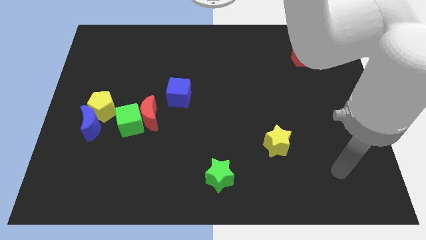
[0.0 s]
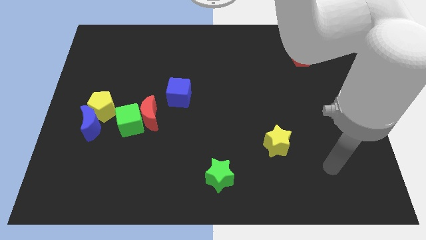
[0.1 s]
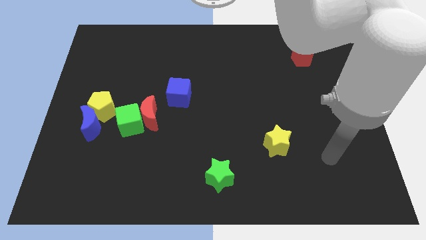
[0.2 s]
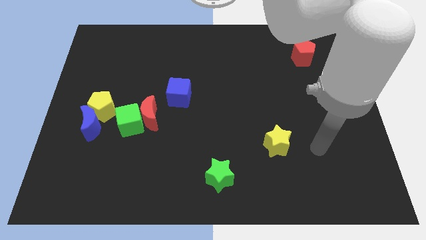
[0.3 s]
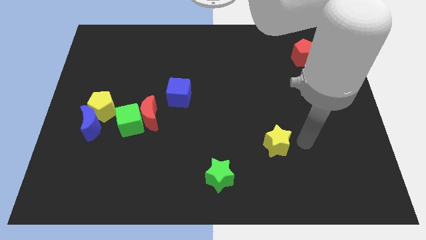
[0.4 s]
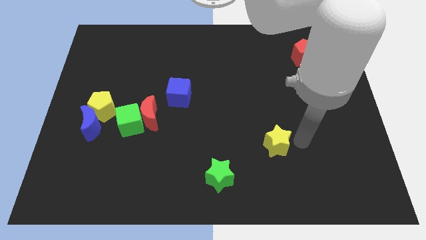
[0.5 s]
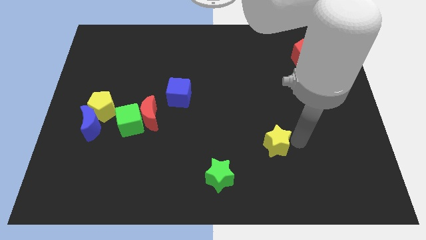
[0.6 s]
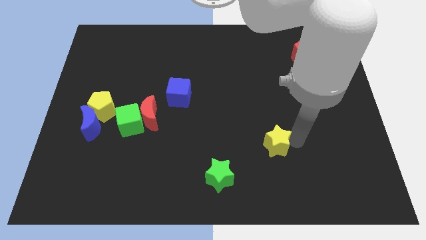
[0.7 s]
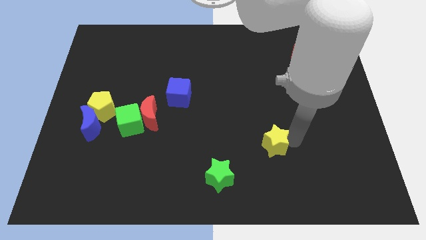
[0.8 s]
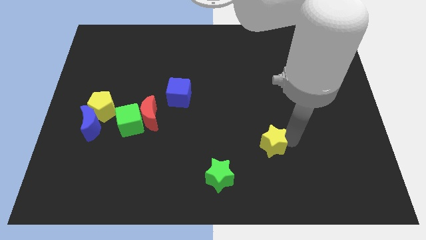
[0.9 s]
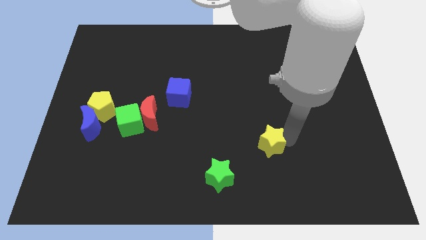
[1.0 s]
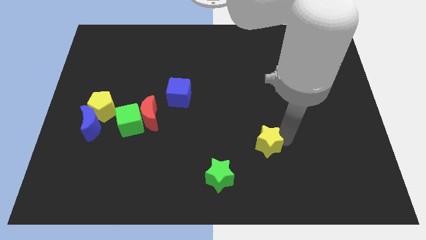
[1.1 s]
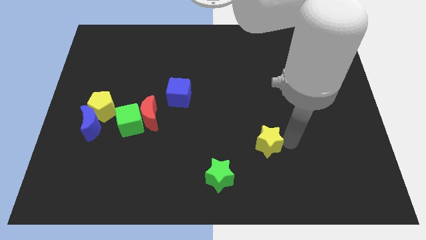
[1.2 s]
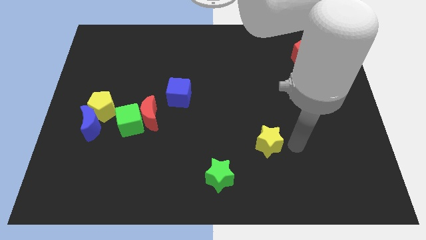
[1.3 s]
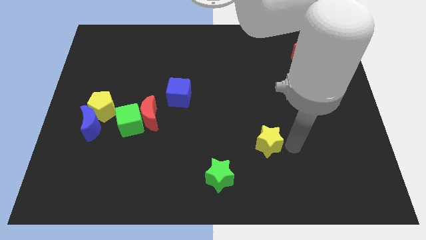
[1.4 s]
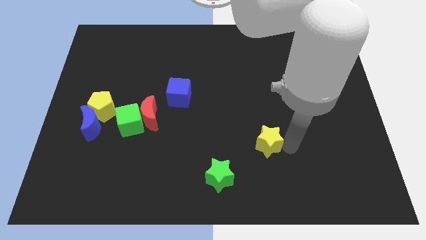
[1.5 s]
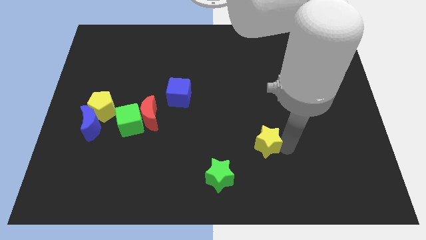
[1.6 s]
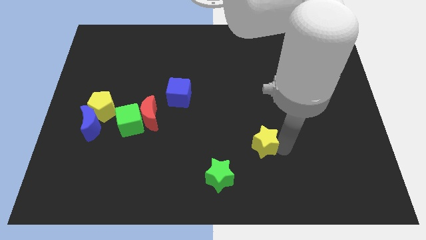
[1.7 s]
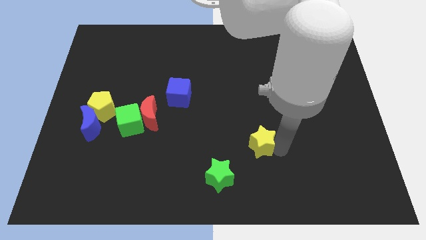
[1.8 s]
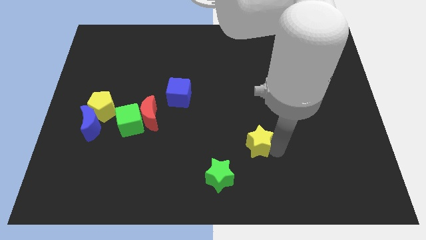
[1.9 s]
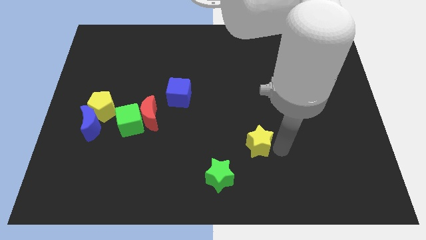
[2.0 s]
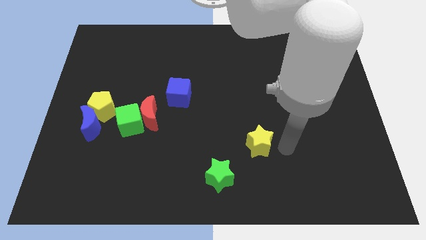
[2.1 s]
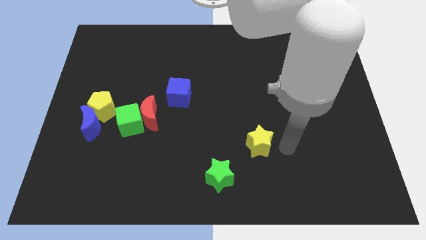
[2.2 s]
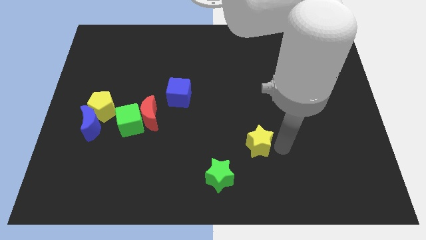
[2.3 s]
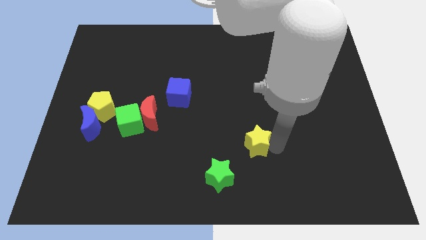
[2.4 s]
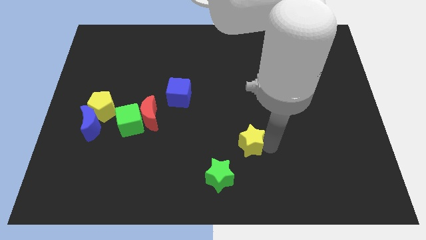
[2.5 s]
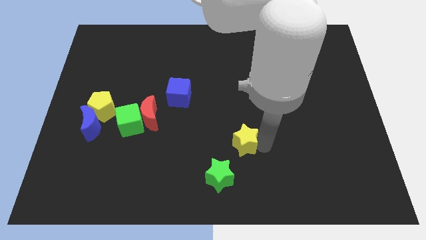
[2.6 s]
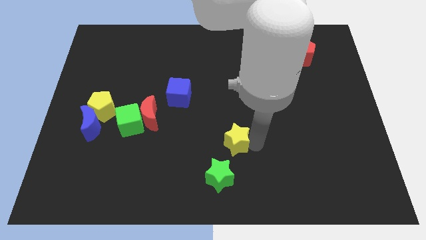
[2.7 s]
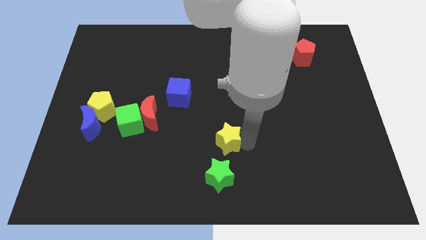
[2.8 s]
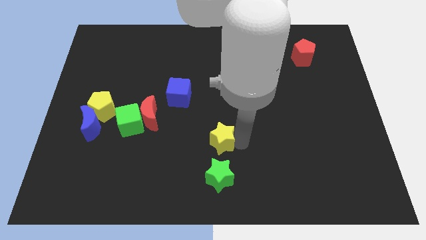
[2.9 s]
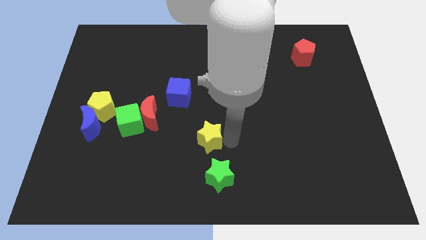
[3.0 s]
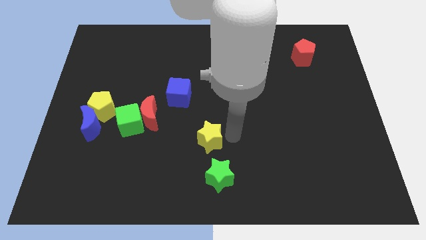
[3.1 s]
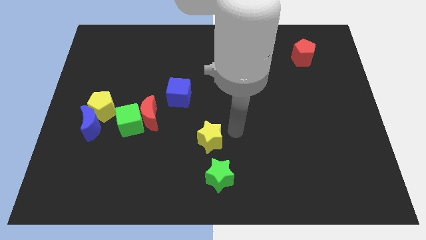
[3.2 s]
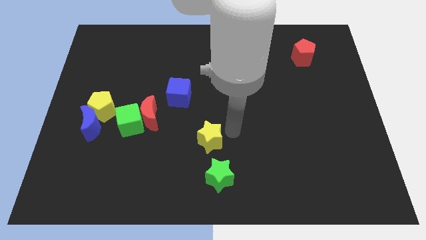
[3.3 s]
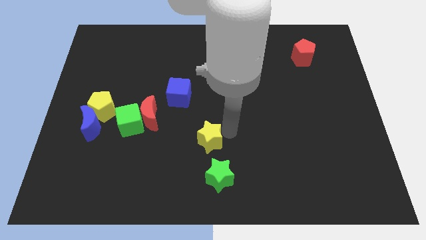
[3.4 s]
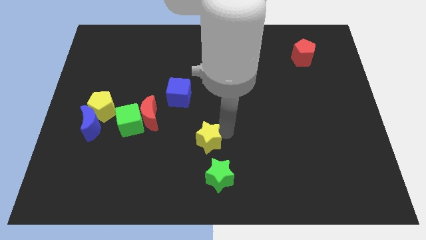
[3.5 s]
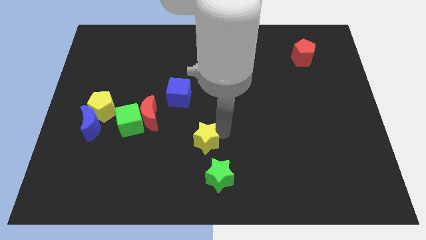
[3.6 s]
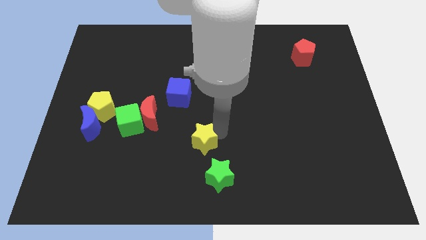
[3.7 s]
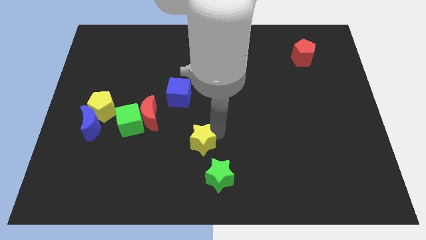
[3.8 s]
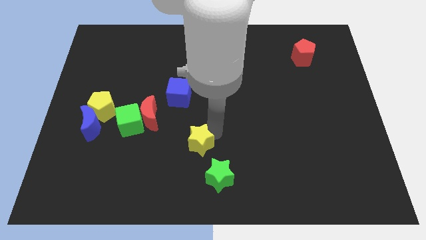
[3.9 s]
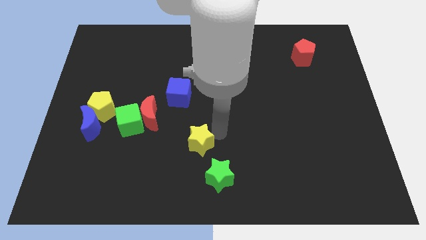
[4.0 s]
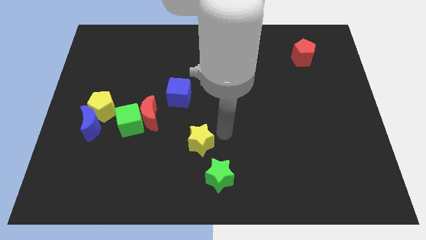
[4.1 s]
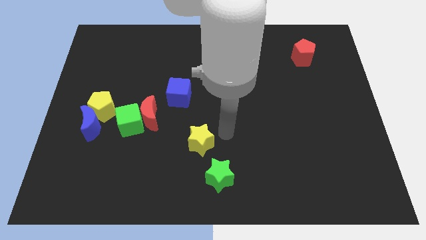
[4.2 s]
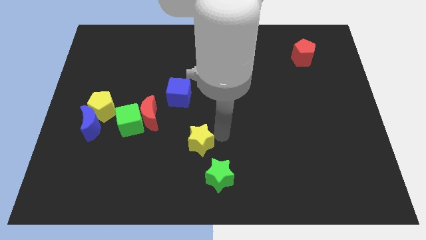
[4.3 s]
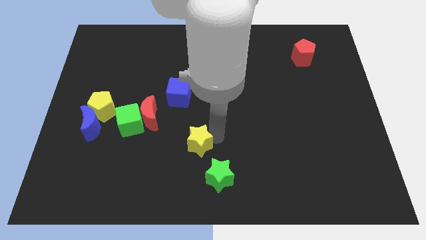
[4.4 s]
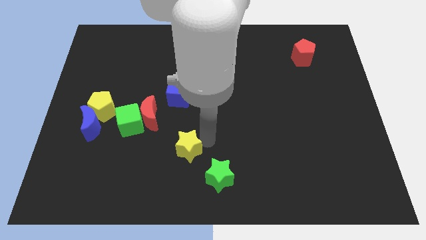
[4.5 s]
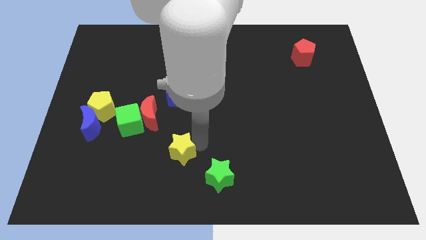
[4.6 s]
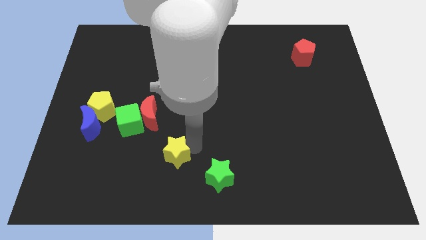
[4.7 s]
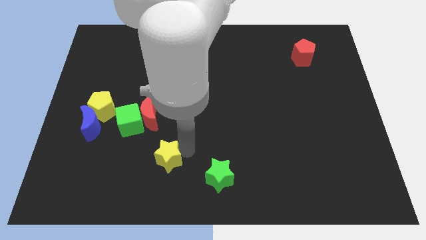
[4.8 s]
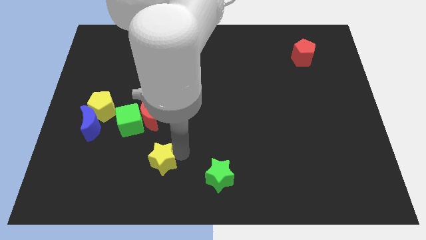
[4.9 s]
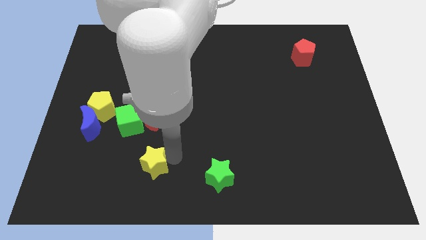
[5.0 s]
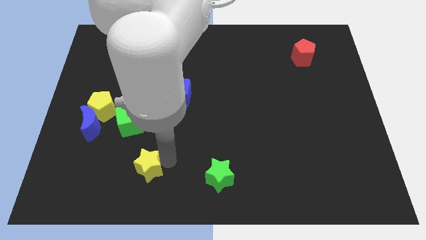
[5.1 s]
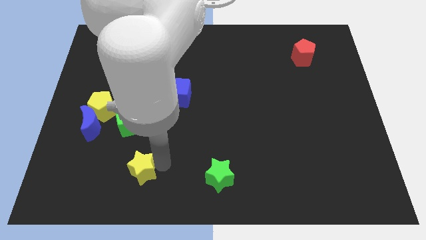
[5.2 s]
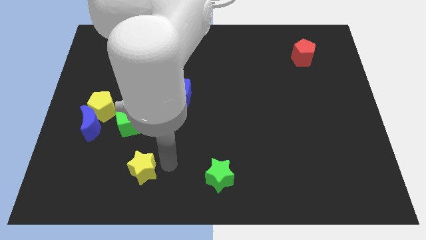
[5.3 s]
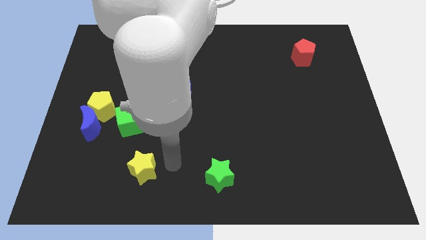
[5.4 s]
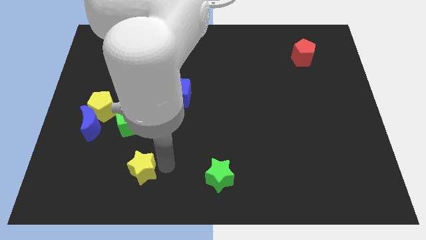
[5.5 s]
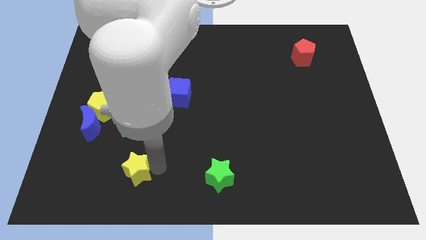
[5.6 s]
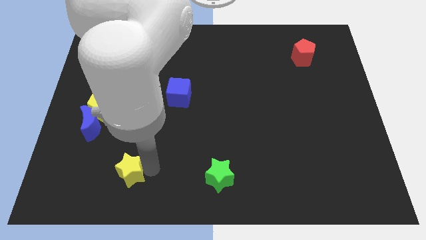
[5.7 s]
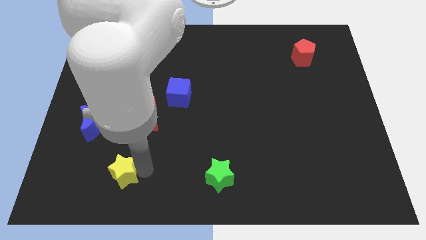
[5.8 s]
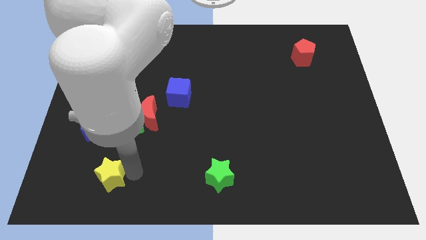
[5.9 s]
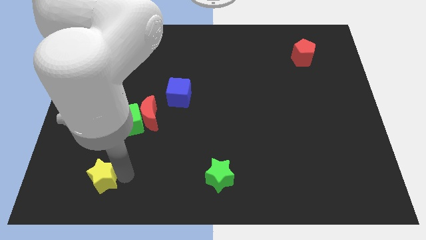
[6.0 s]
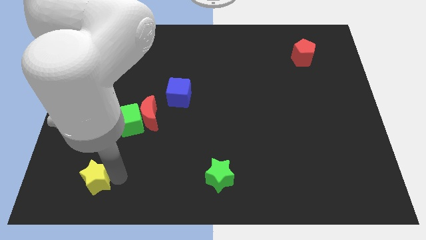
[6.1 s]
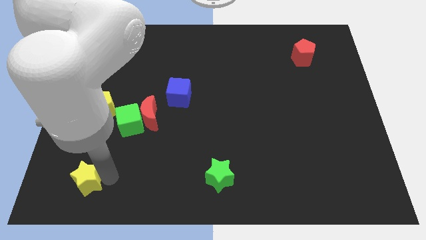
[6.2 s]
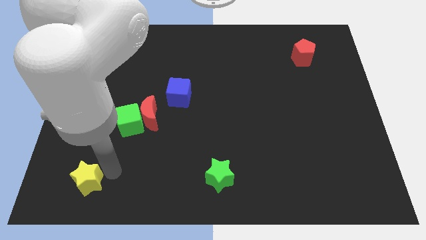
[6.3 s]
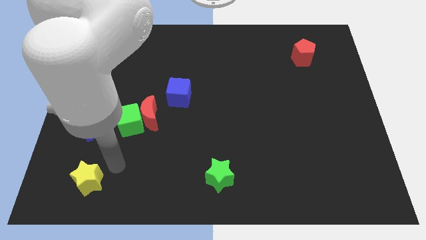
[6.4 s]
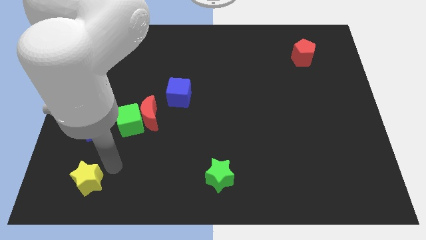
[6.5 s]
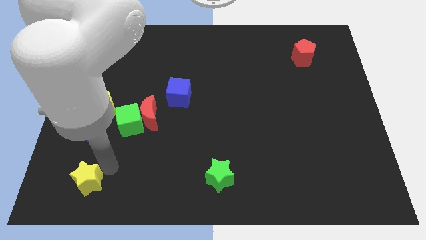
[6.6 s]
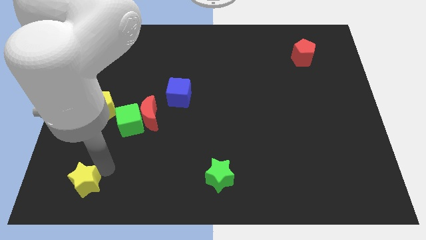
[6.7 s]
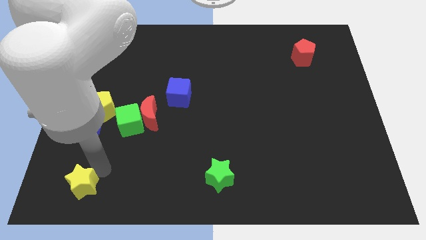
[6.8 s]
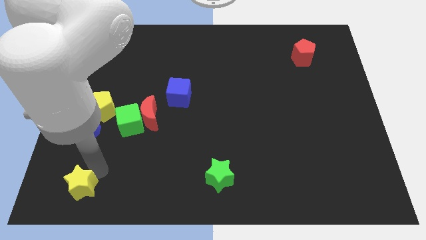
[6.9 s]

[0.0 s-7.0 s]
push the yellow star to the bottom left corner
